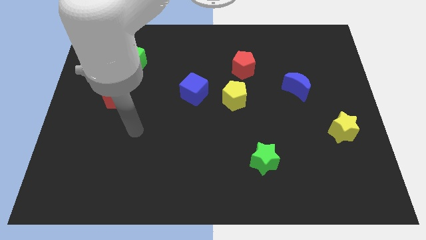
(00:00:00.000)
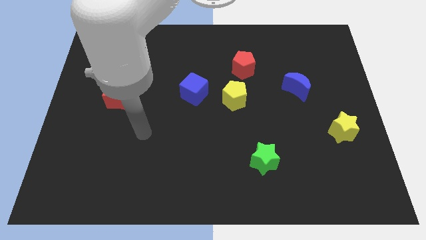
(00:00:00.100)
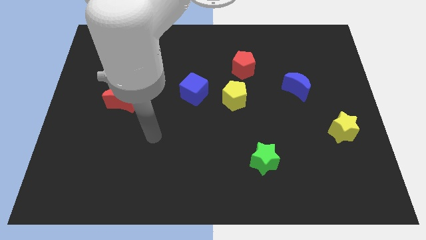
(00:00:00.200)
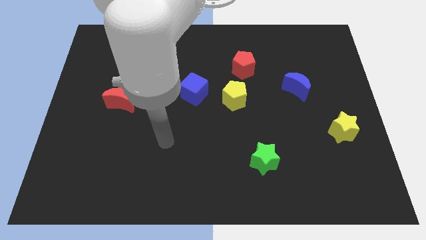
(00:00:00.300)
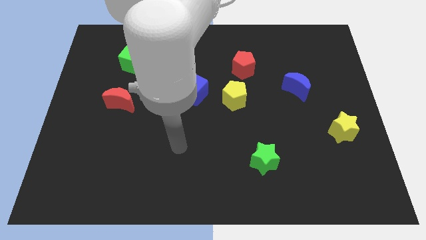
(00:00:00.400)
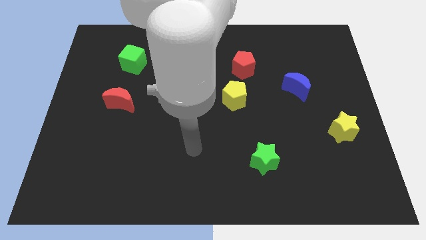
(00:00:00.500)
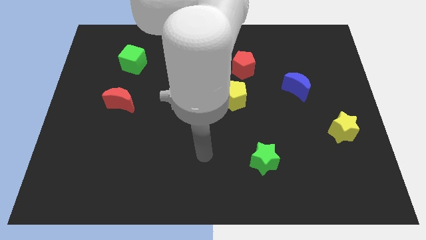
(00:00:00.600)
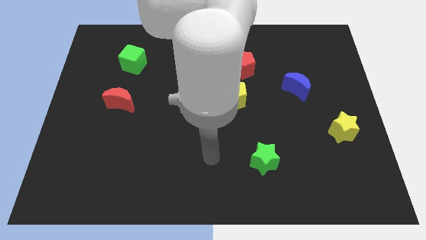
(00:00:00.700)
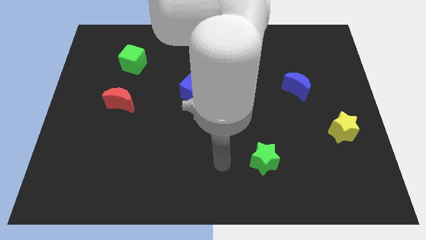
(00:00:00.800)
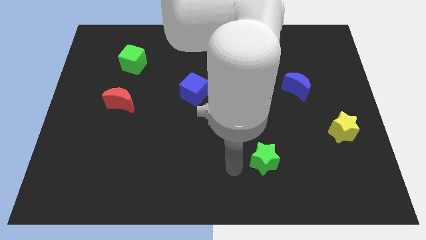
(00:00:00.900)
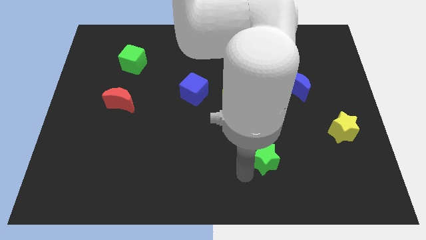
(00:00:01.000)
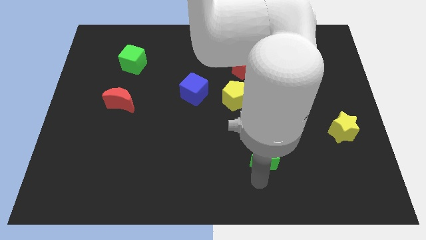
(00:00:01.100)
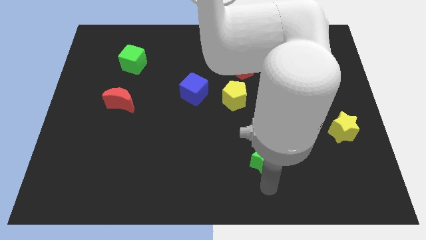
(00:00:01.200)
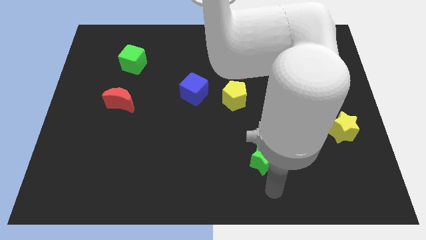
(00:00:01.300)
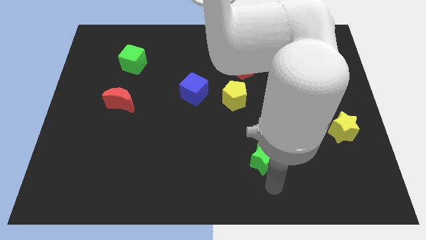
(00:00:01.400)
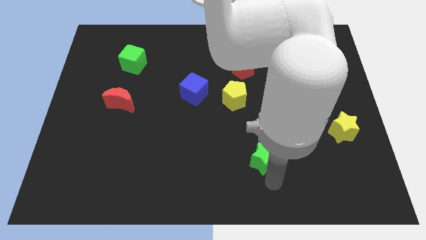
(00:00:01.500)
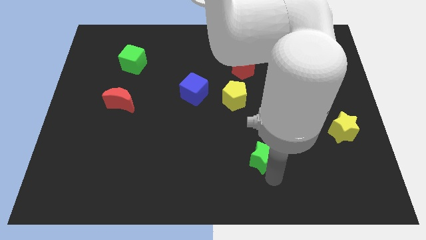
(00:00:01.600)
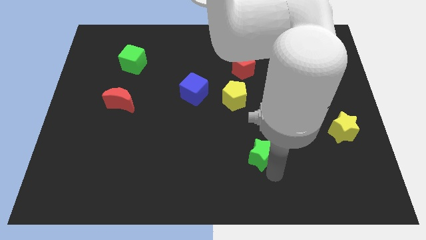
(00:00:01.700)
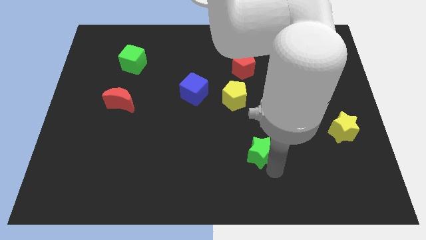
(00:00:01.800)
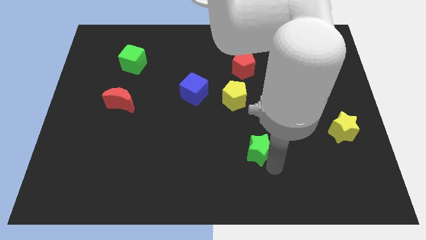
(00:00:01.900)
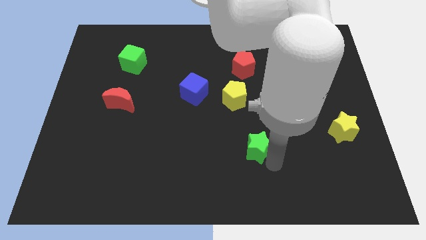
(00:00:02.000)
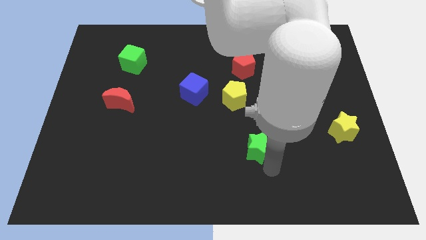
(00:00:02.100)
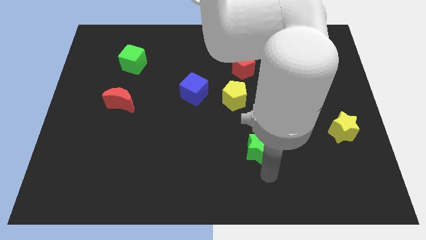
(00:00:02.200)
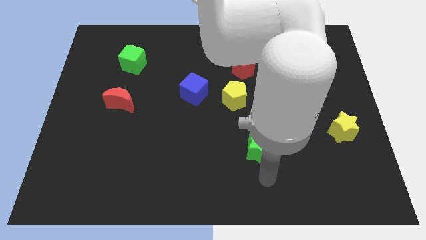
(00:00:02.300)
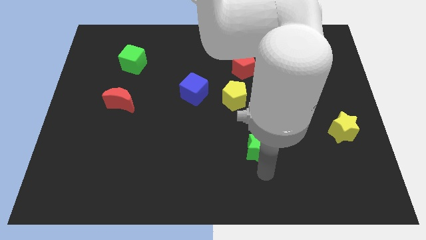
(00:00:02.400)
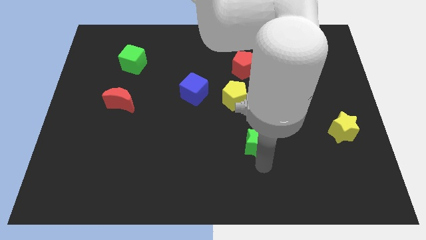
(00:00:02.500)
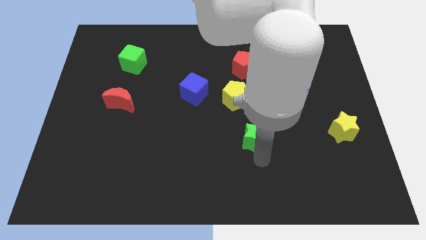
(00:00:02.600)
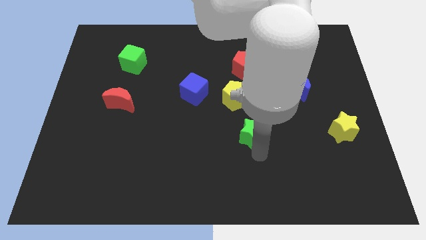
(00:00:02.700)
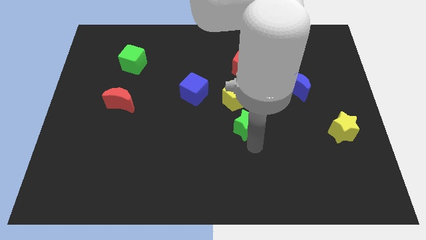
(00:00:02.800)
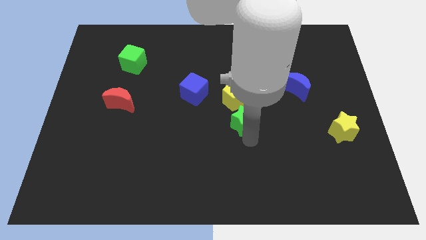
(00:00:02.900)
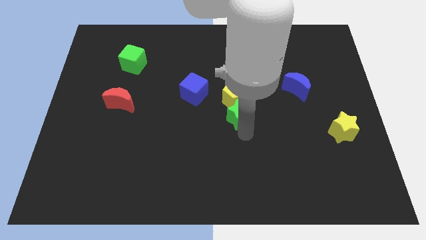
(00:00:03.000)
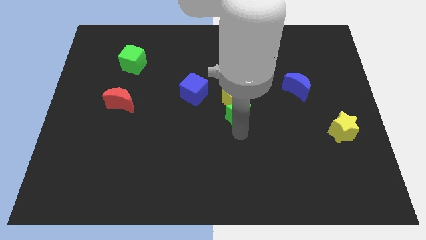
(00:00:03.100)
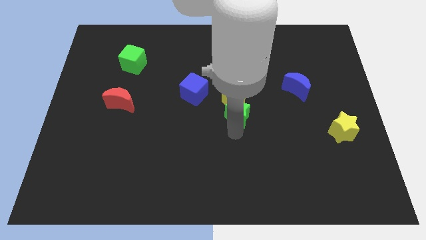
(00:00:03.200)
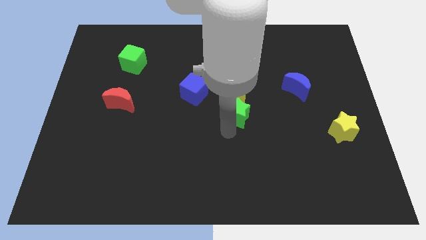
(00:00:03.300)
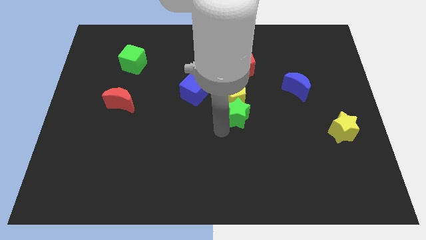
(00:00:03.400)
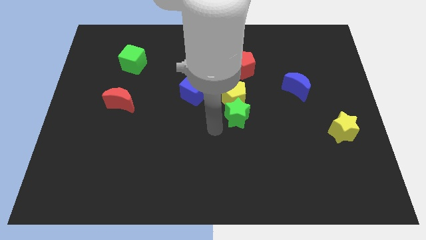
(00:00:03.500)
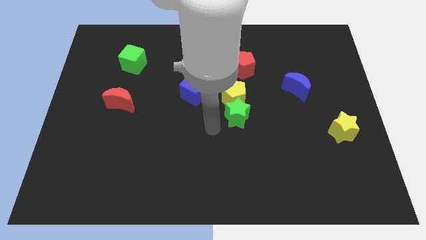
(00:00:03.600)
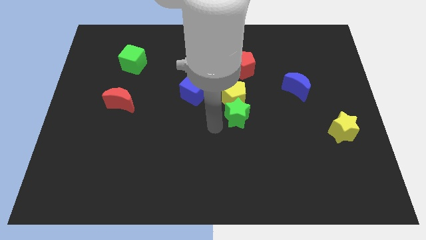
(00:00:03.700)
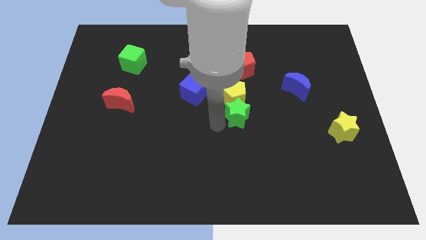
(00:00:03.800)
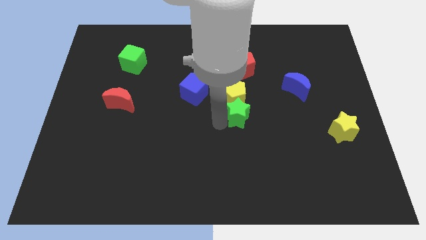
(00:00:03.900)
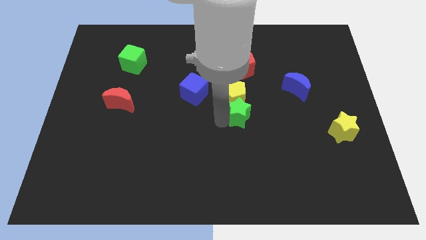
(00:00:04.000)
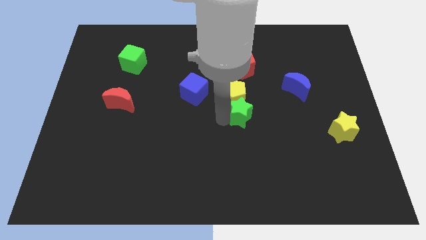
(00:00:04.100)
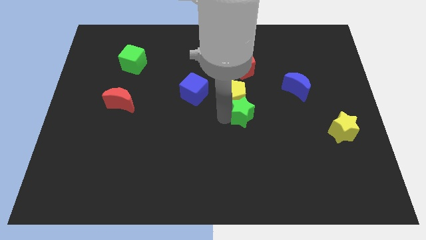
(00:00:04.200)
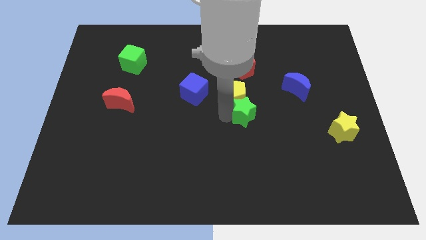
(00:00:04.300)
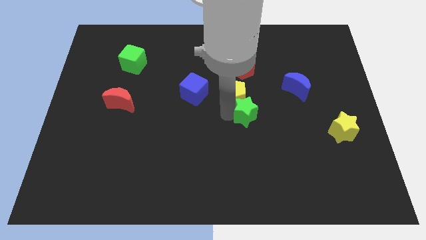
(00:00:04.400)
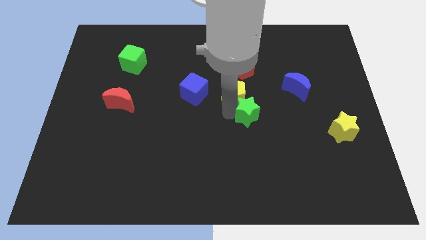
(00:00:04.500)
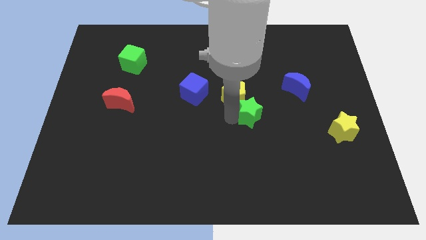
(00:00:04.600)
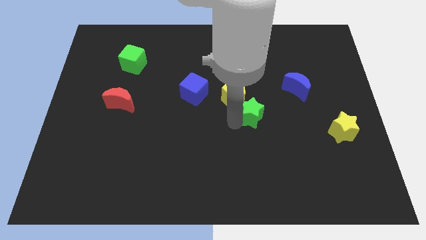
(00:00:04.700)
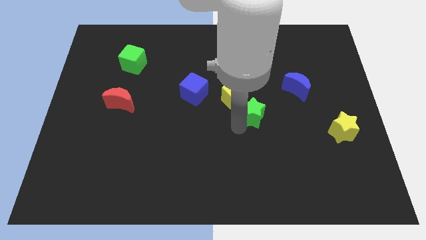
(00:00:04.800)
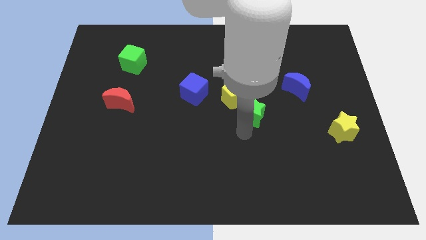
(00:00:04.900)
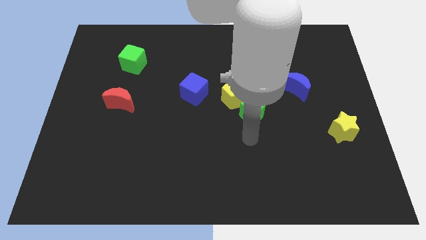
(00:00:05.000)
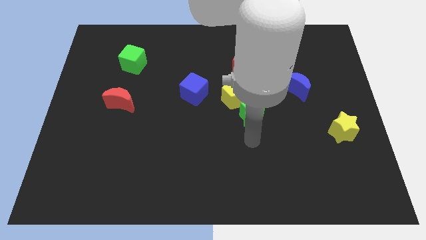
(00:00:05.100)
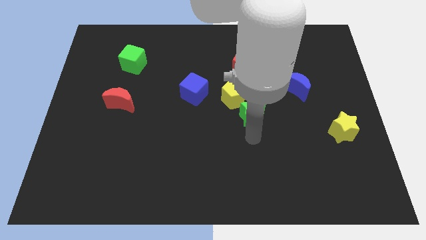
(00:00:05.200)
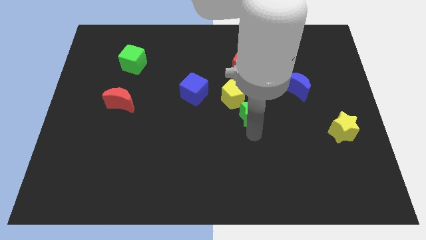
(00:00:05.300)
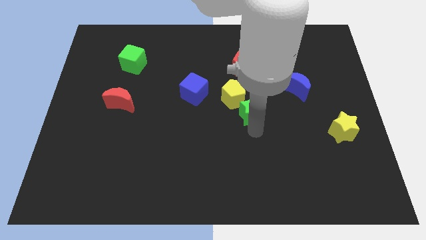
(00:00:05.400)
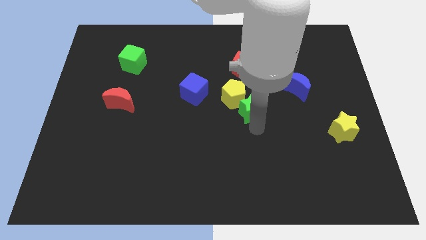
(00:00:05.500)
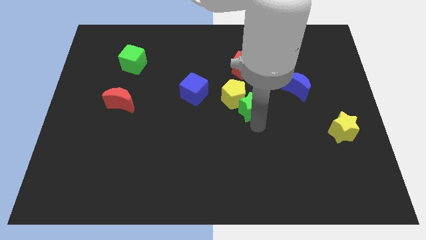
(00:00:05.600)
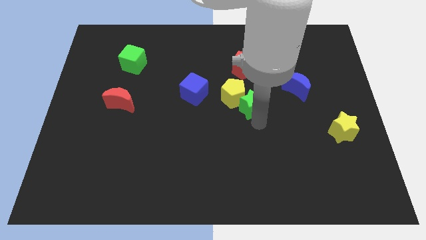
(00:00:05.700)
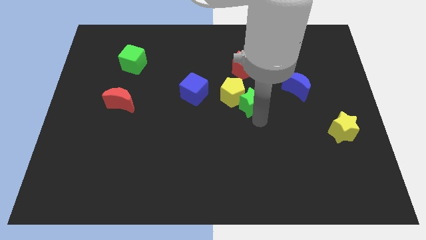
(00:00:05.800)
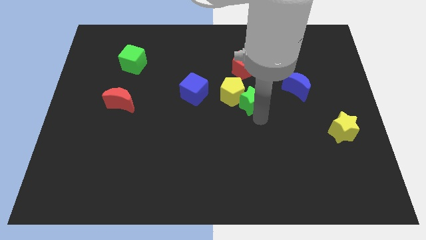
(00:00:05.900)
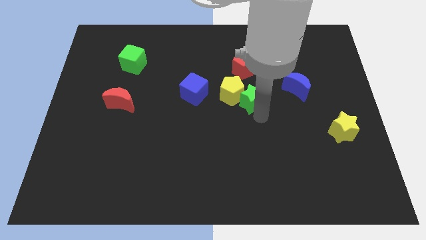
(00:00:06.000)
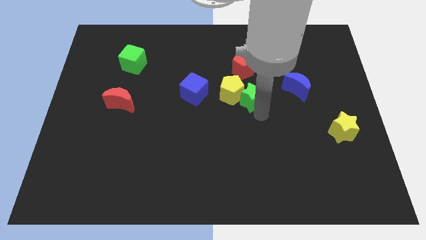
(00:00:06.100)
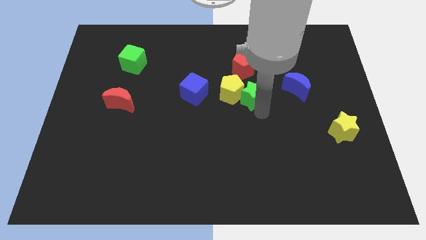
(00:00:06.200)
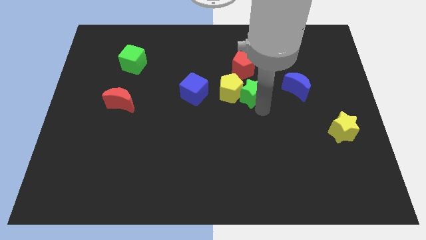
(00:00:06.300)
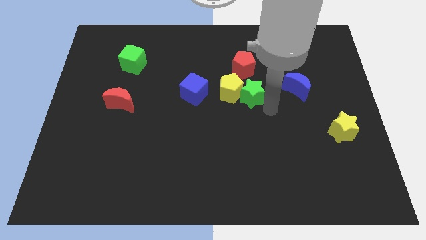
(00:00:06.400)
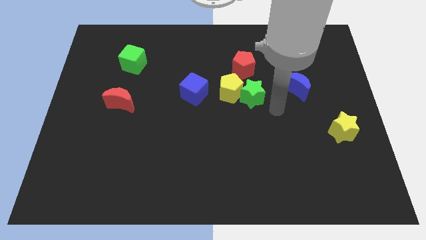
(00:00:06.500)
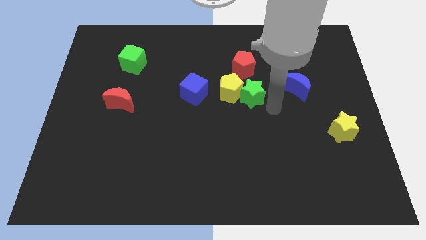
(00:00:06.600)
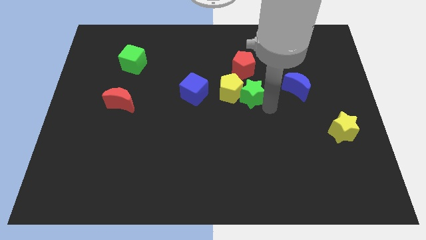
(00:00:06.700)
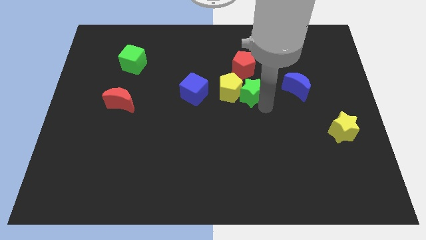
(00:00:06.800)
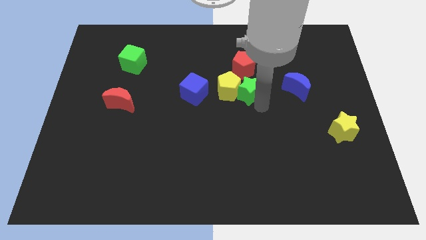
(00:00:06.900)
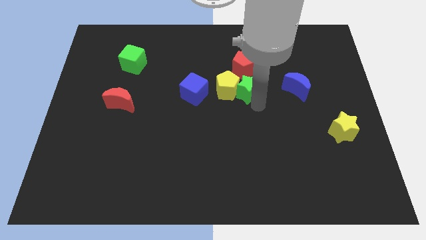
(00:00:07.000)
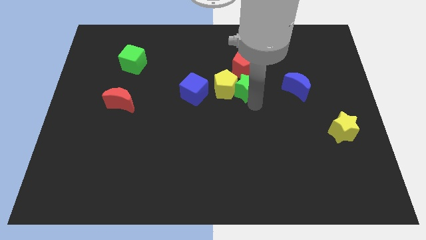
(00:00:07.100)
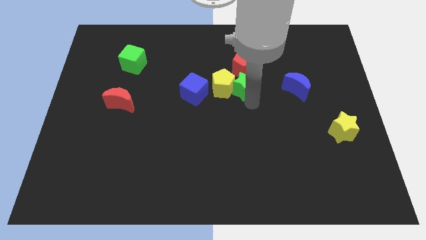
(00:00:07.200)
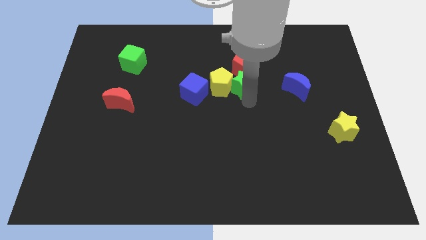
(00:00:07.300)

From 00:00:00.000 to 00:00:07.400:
put the green star to the bottom left side of the red pentagon

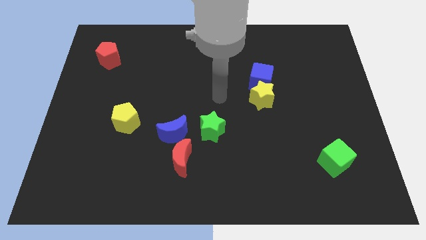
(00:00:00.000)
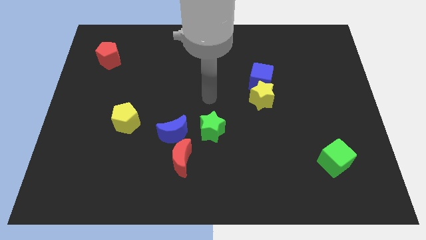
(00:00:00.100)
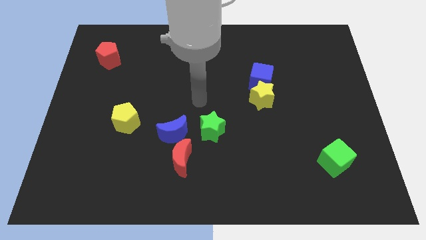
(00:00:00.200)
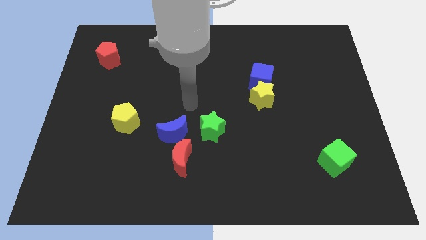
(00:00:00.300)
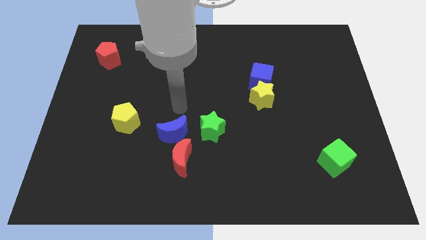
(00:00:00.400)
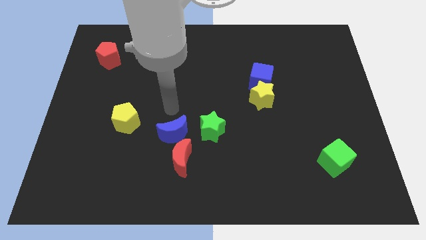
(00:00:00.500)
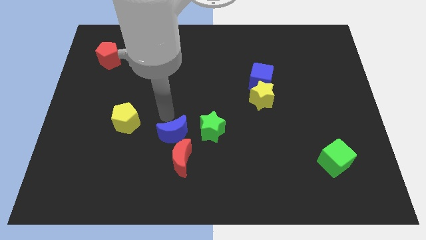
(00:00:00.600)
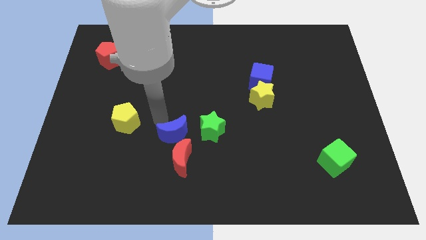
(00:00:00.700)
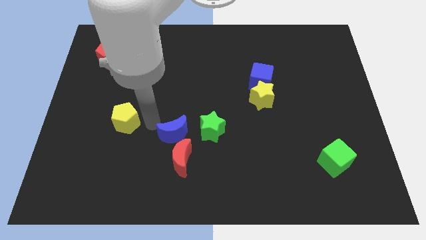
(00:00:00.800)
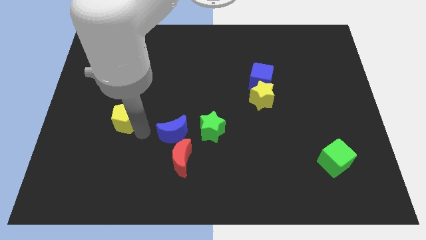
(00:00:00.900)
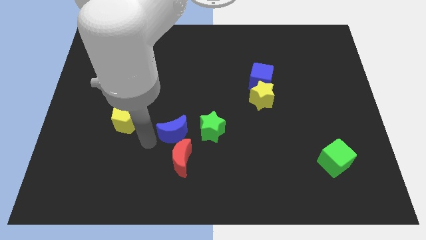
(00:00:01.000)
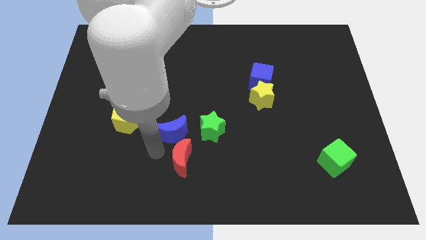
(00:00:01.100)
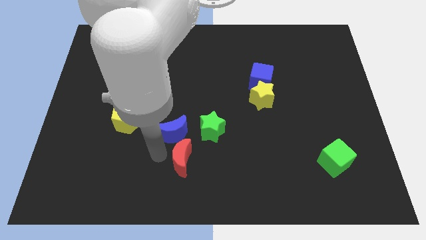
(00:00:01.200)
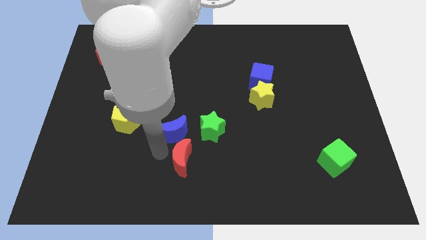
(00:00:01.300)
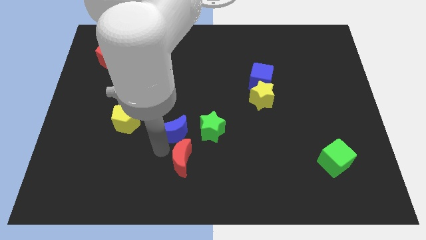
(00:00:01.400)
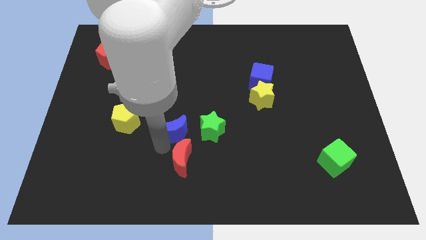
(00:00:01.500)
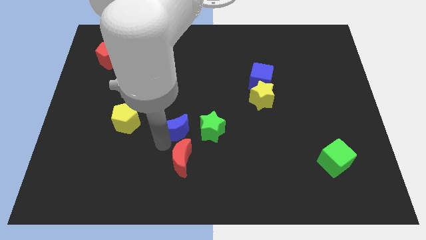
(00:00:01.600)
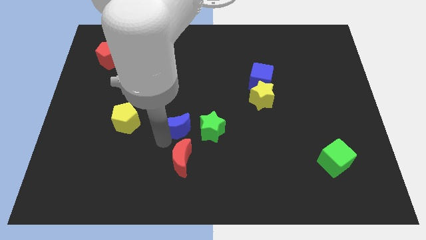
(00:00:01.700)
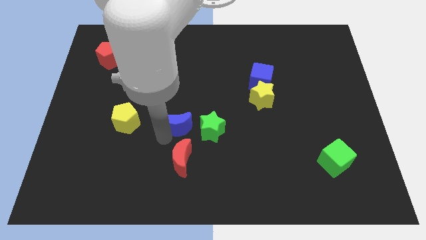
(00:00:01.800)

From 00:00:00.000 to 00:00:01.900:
put the blue moon to the top left side of the green star
